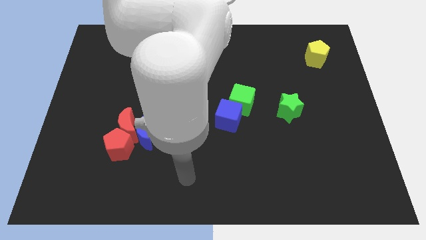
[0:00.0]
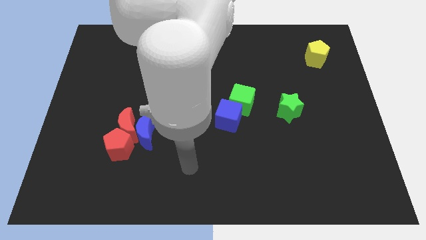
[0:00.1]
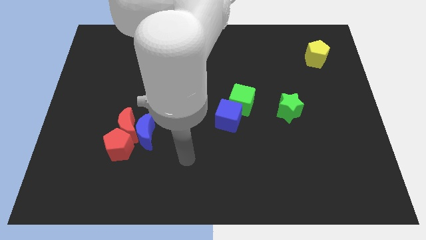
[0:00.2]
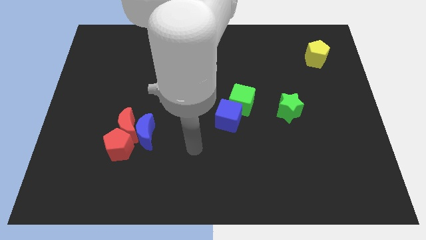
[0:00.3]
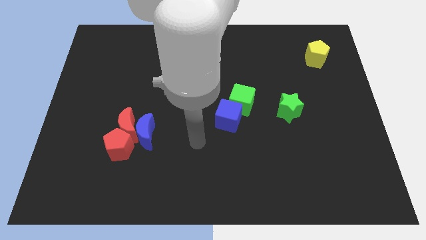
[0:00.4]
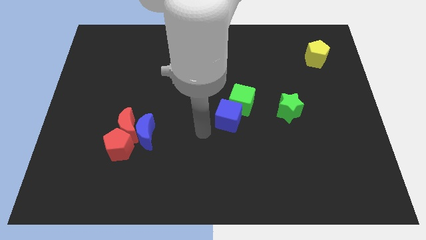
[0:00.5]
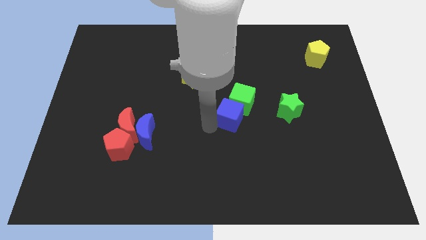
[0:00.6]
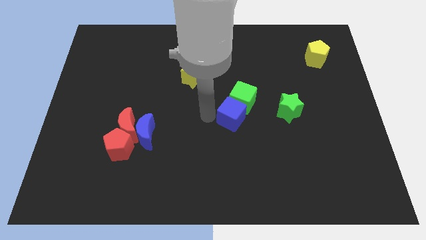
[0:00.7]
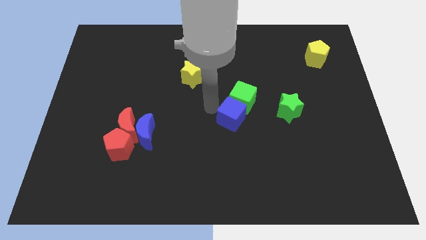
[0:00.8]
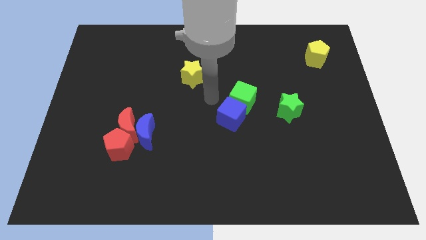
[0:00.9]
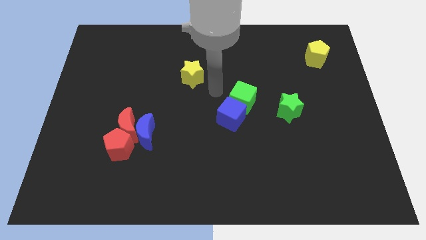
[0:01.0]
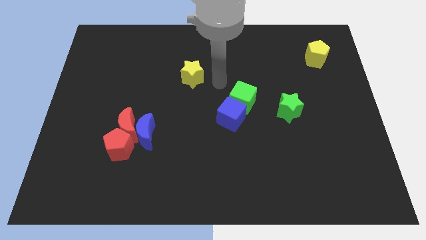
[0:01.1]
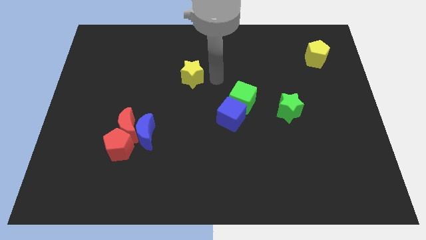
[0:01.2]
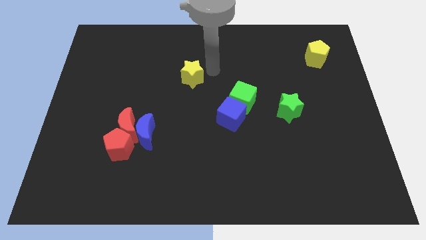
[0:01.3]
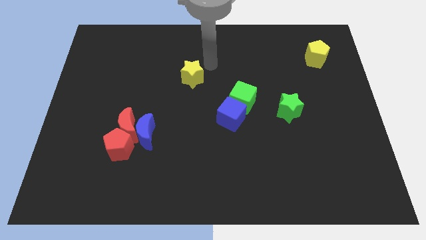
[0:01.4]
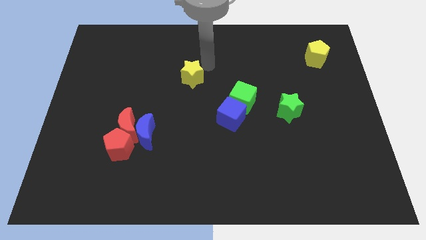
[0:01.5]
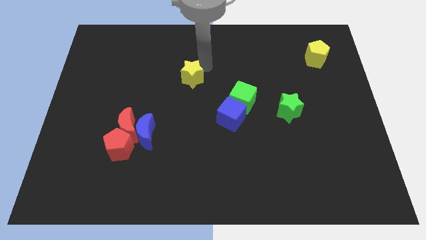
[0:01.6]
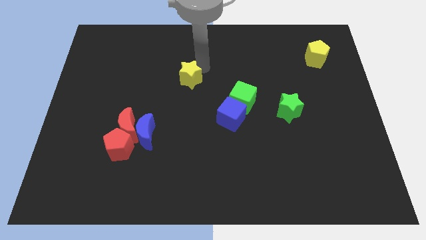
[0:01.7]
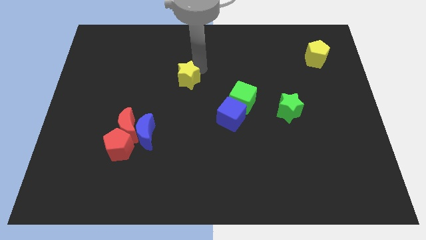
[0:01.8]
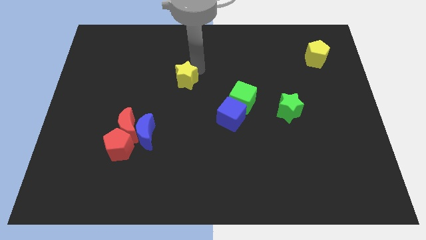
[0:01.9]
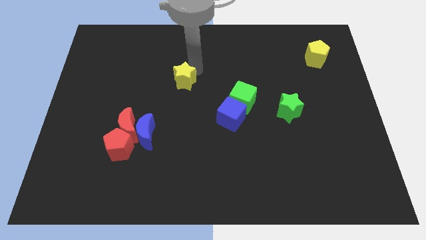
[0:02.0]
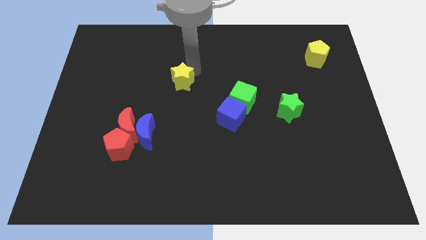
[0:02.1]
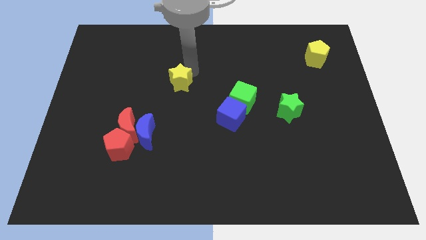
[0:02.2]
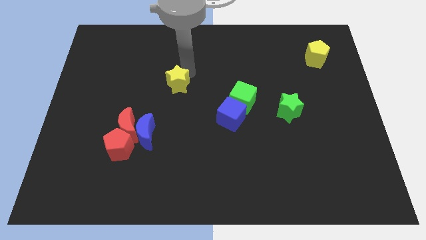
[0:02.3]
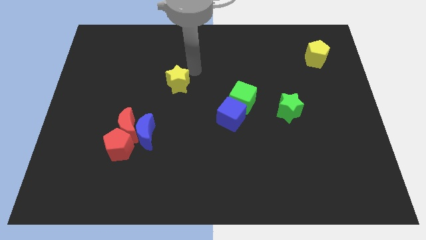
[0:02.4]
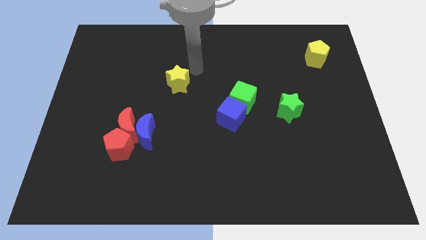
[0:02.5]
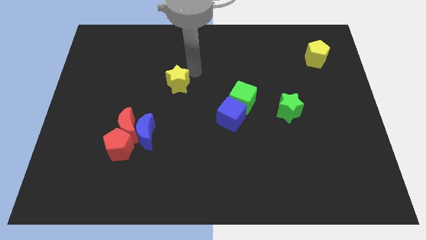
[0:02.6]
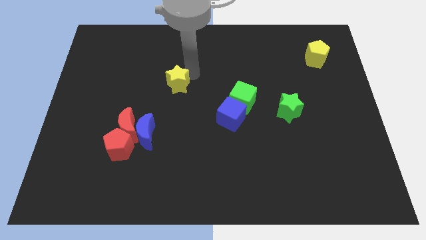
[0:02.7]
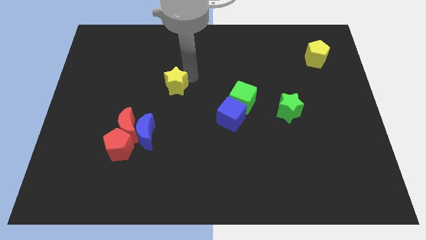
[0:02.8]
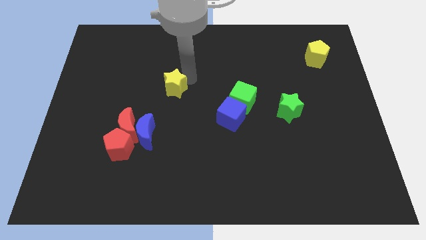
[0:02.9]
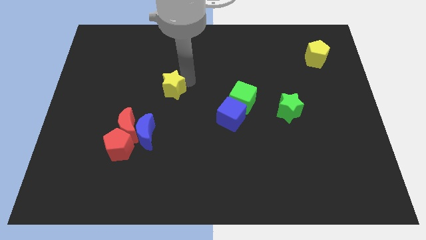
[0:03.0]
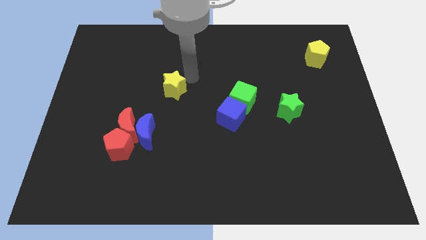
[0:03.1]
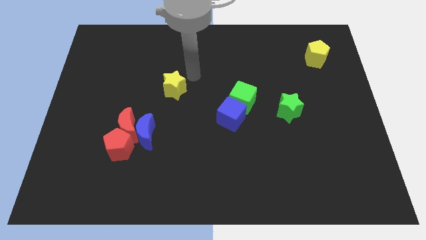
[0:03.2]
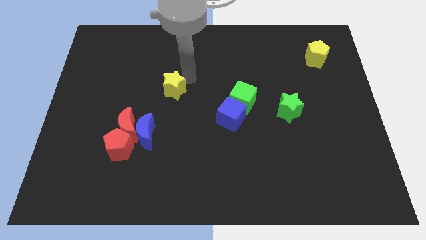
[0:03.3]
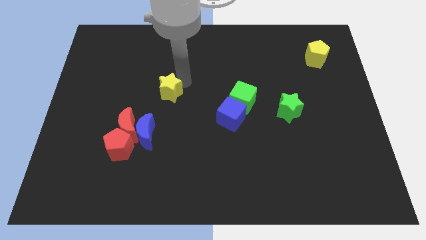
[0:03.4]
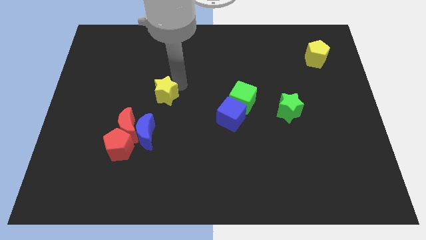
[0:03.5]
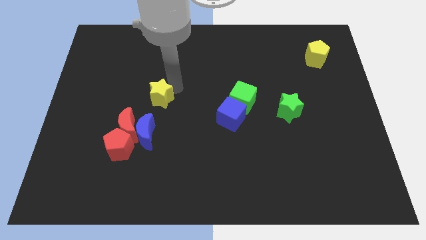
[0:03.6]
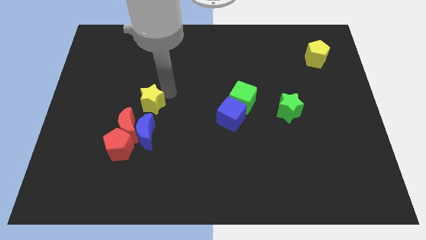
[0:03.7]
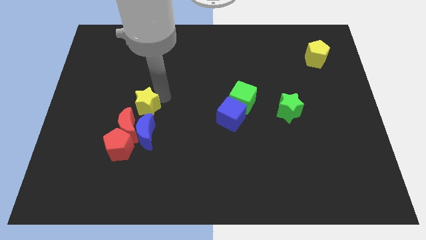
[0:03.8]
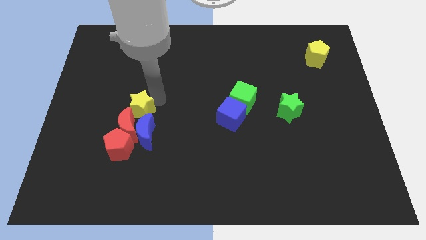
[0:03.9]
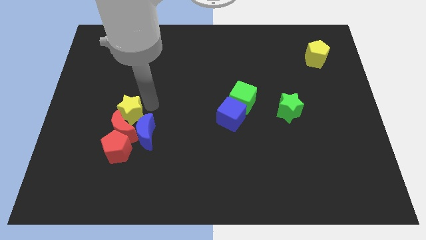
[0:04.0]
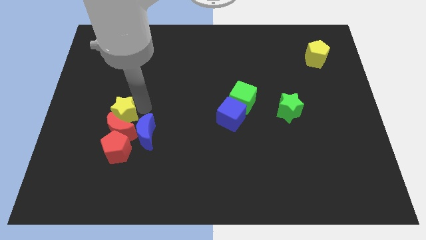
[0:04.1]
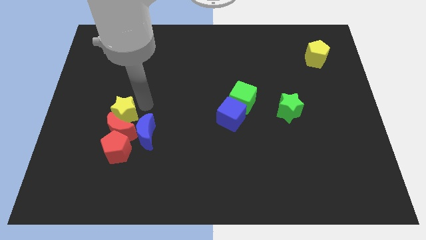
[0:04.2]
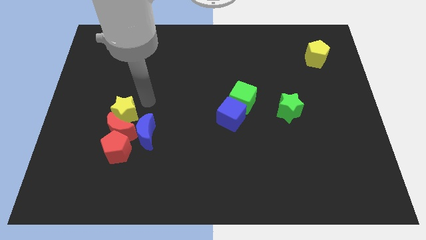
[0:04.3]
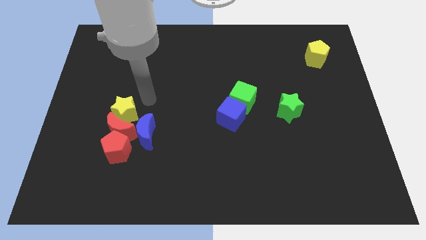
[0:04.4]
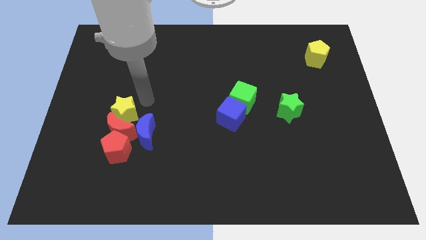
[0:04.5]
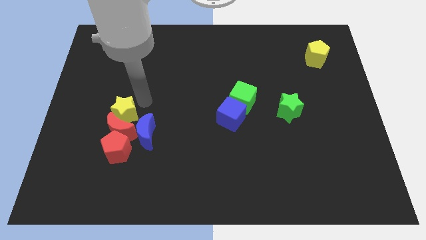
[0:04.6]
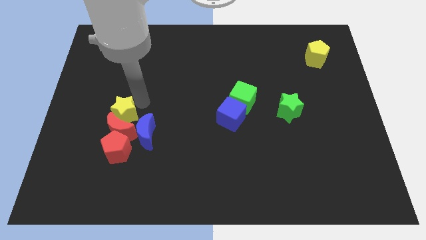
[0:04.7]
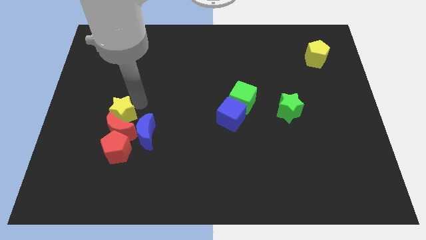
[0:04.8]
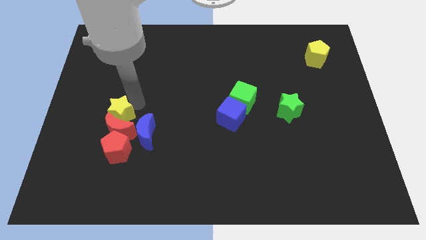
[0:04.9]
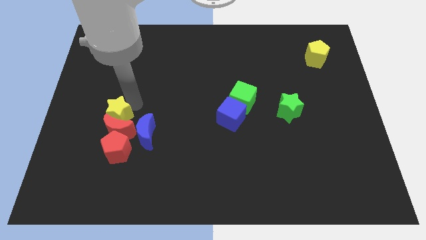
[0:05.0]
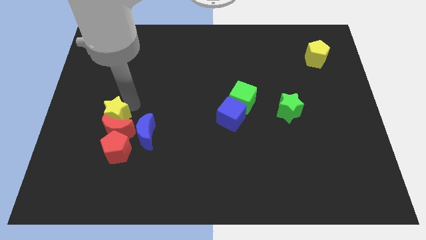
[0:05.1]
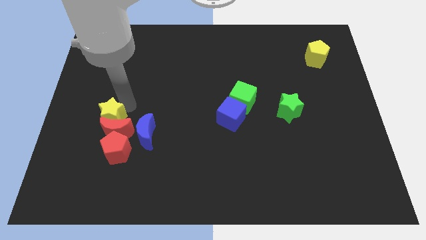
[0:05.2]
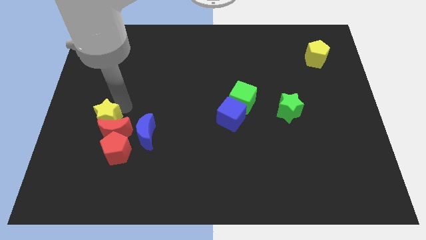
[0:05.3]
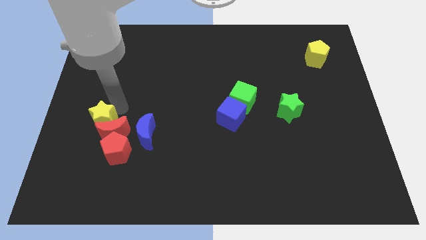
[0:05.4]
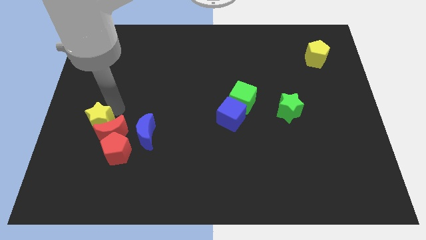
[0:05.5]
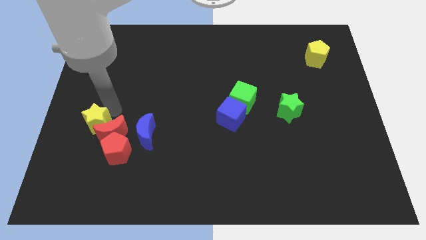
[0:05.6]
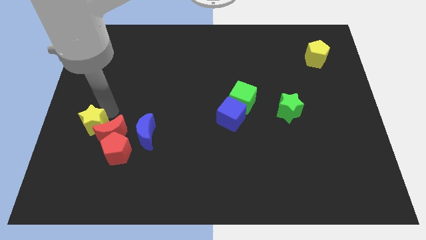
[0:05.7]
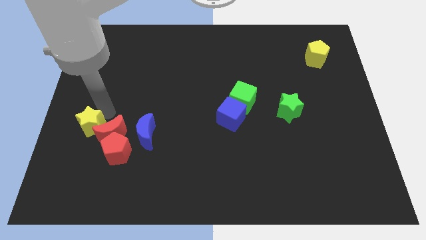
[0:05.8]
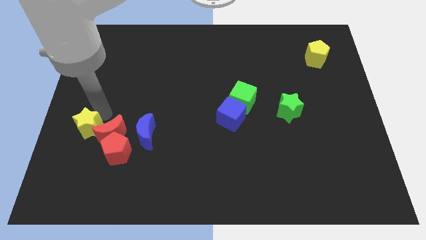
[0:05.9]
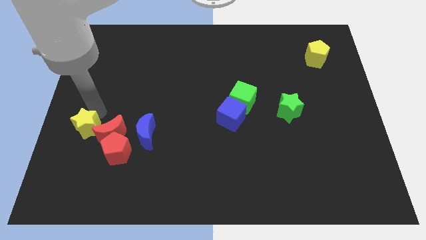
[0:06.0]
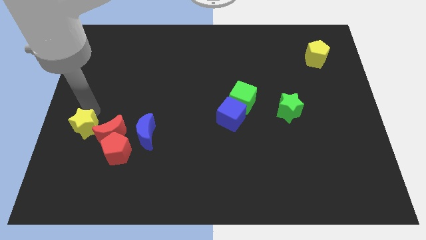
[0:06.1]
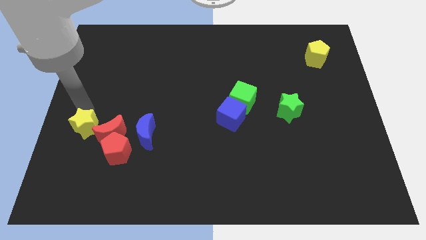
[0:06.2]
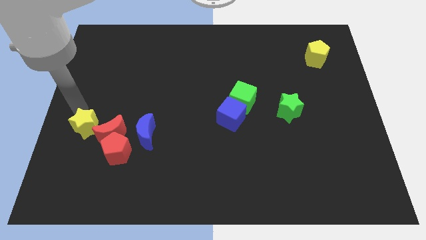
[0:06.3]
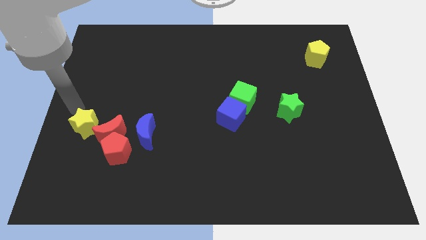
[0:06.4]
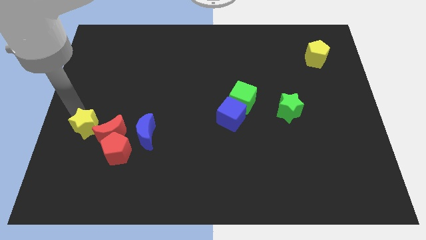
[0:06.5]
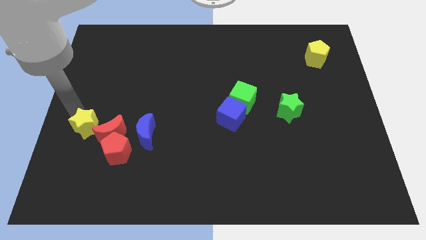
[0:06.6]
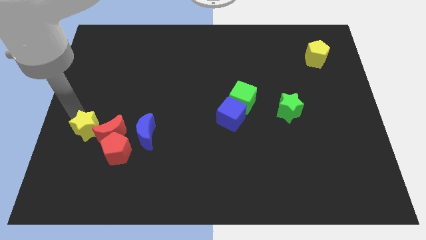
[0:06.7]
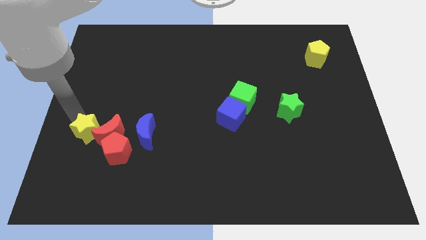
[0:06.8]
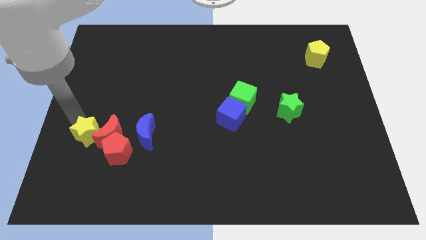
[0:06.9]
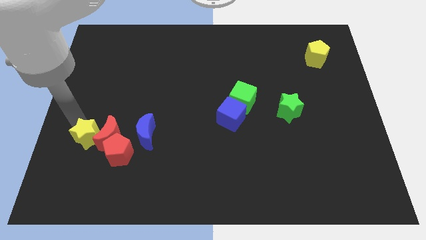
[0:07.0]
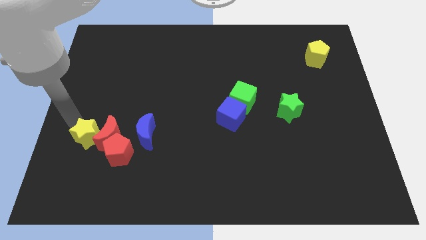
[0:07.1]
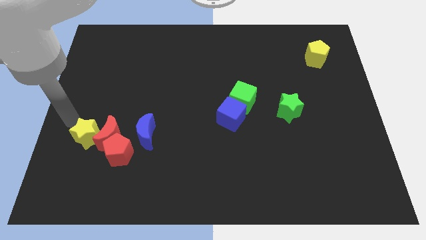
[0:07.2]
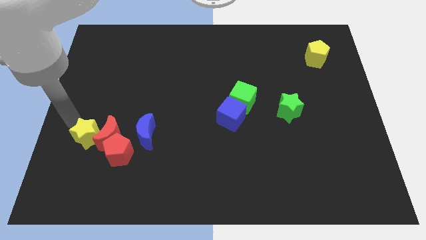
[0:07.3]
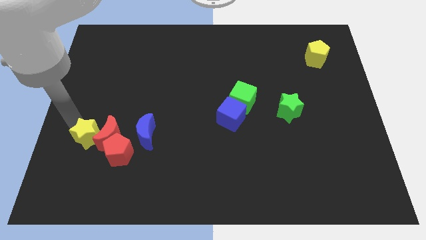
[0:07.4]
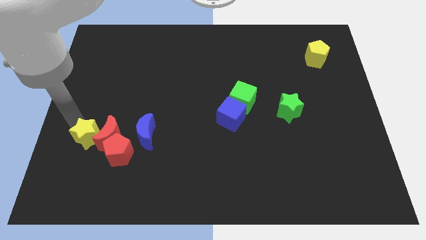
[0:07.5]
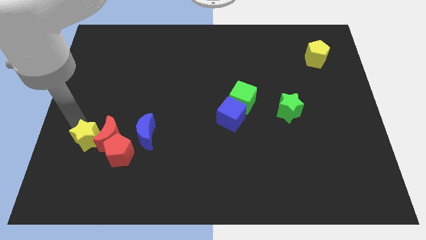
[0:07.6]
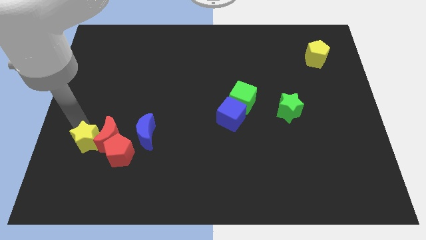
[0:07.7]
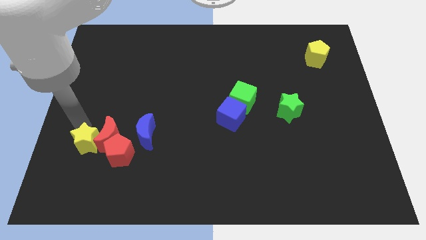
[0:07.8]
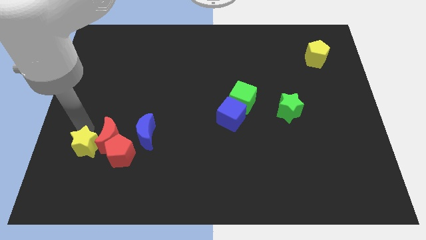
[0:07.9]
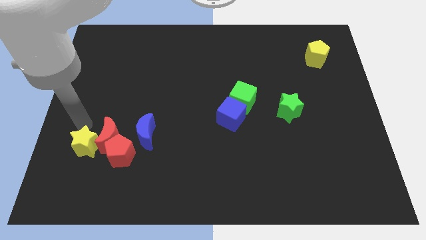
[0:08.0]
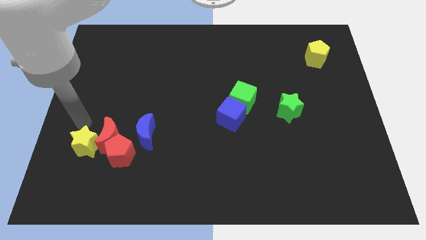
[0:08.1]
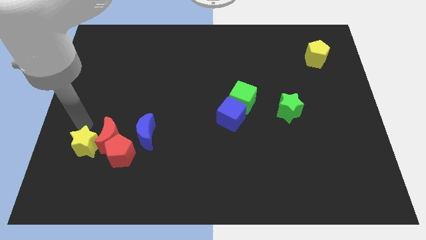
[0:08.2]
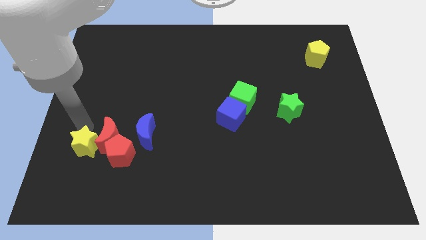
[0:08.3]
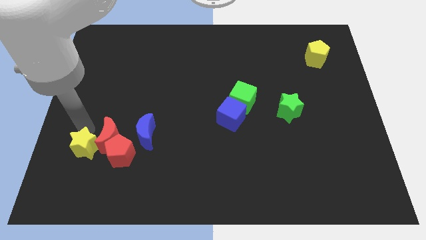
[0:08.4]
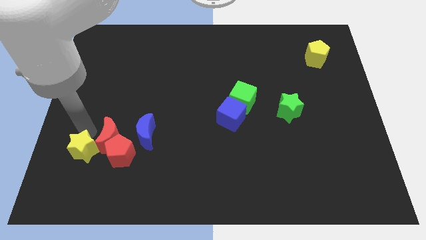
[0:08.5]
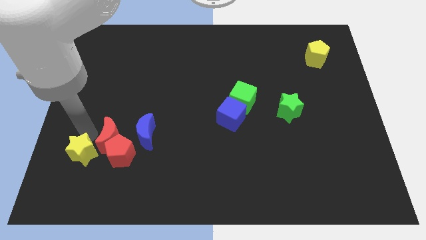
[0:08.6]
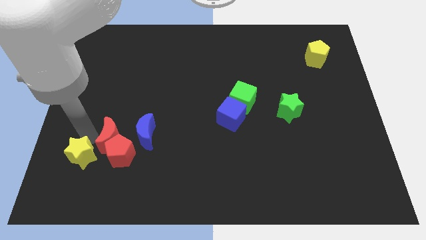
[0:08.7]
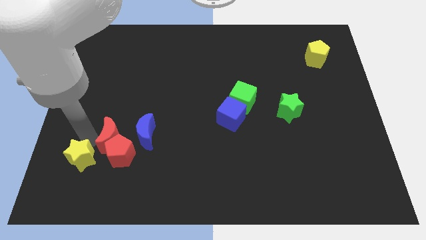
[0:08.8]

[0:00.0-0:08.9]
move the yellow star diagonally down and to the left of the red pentagon
